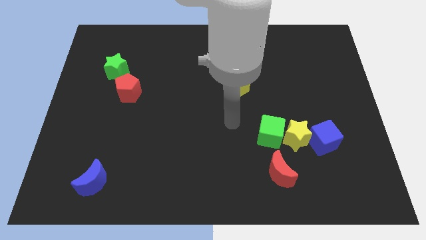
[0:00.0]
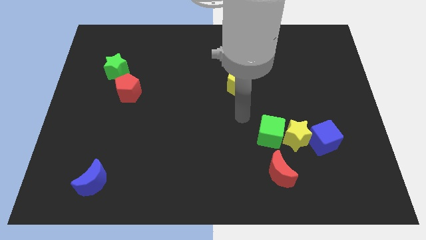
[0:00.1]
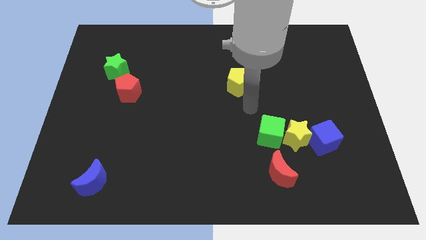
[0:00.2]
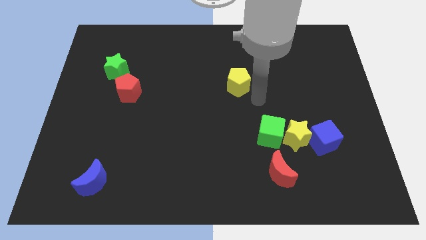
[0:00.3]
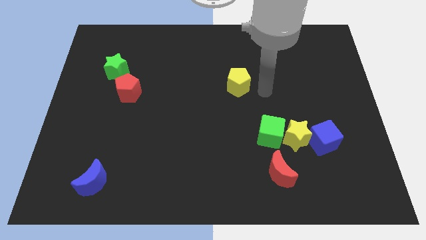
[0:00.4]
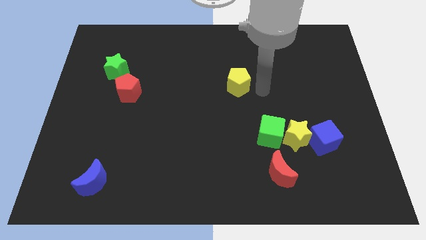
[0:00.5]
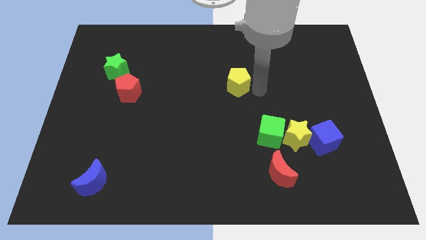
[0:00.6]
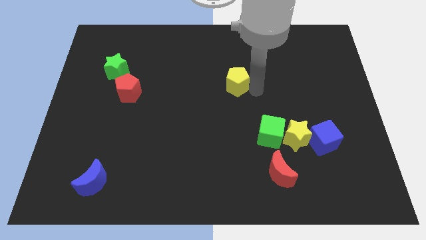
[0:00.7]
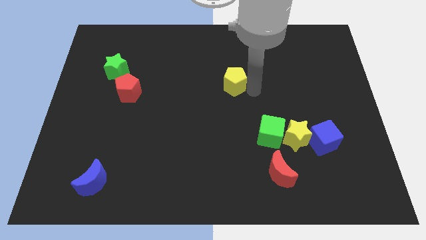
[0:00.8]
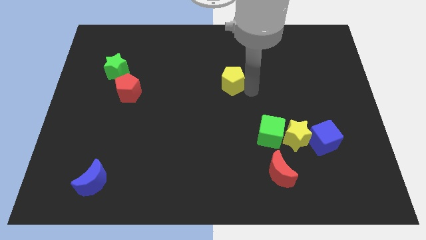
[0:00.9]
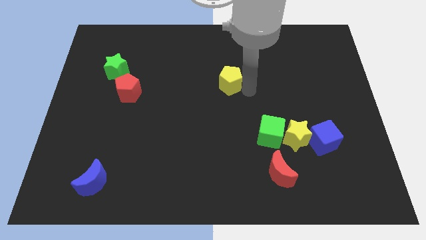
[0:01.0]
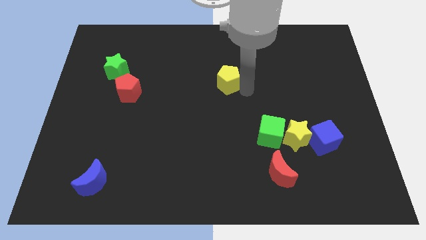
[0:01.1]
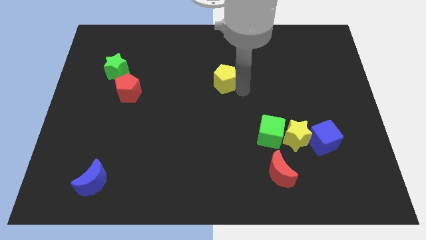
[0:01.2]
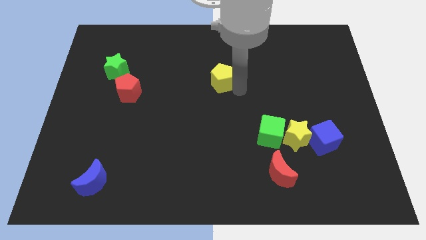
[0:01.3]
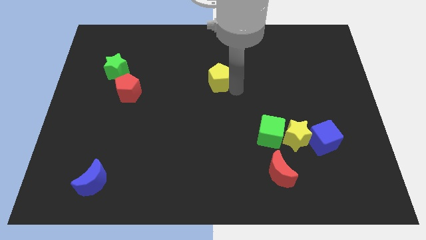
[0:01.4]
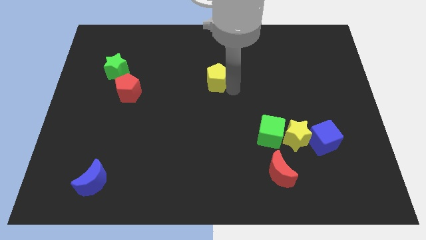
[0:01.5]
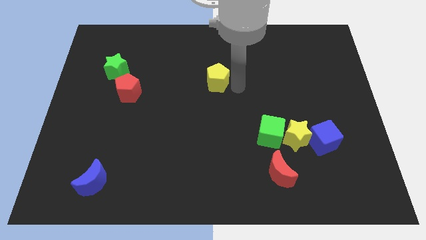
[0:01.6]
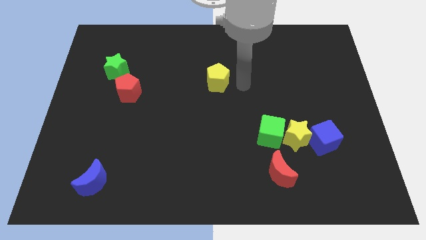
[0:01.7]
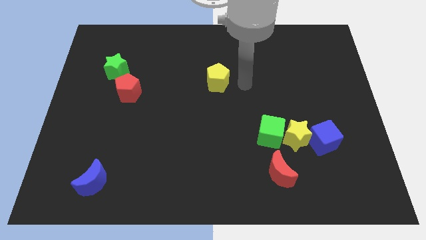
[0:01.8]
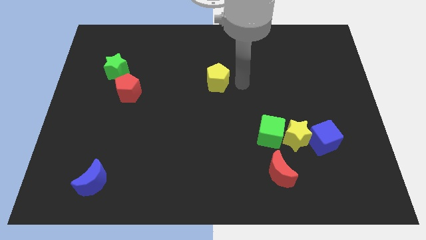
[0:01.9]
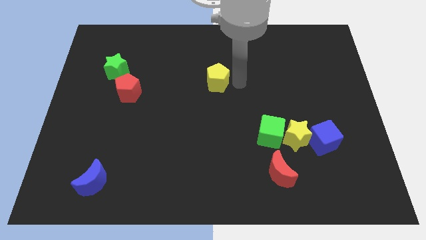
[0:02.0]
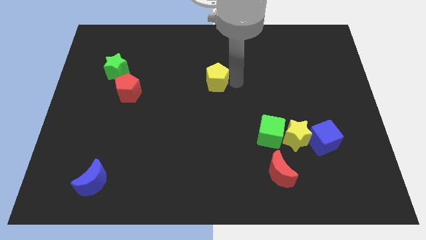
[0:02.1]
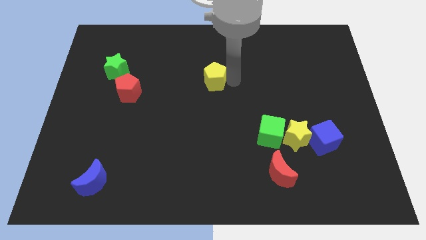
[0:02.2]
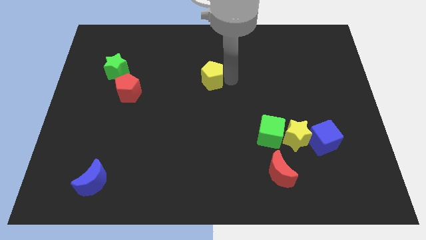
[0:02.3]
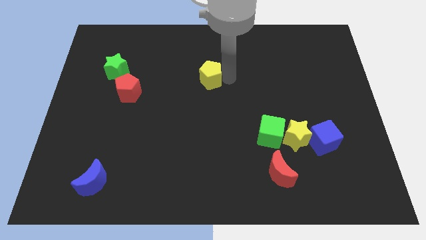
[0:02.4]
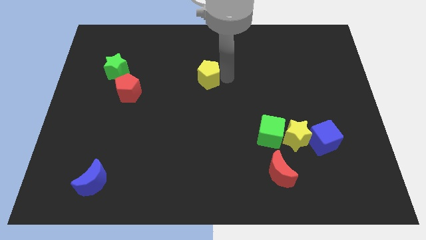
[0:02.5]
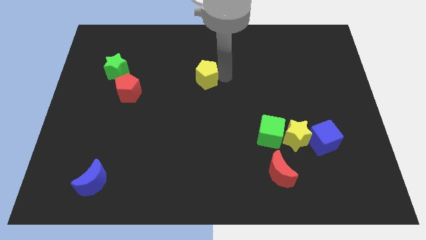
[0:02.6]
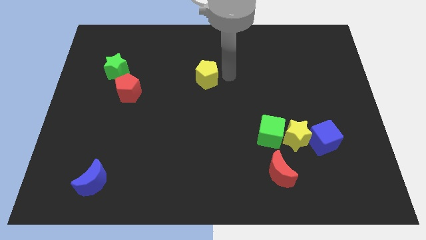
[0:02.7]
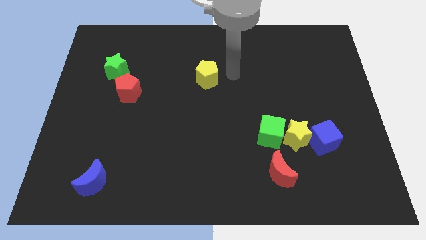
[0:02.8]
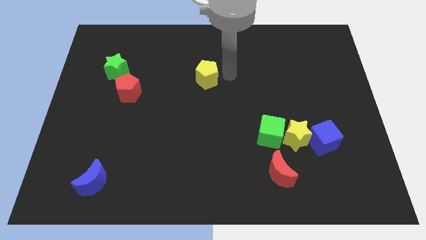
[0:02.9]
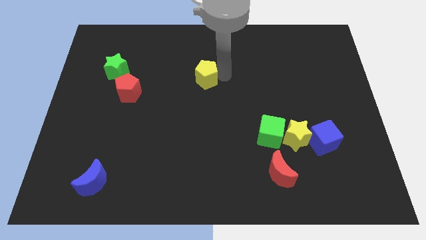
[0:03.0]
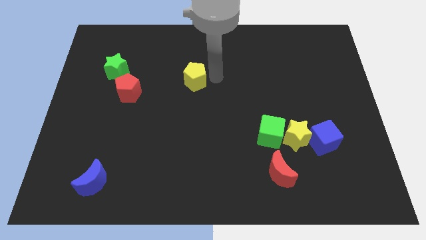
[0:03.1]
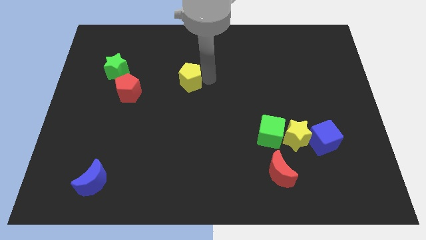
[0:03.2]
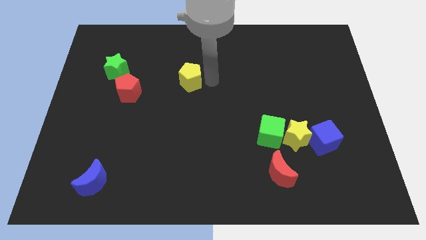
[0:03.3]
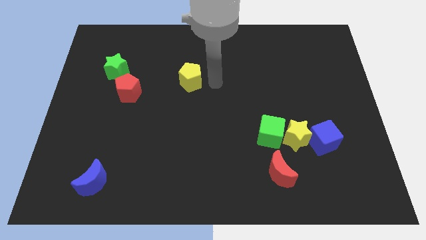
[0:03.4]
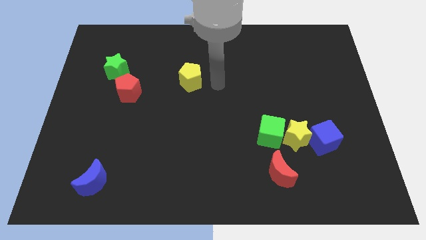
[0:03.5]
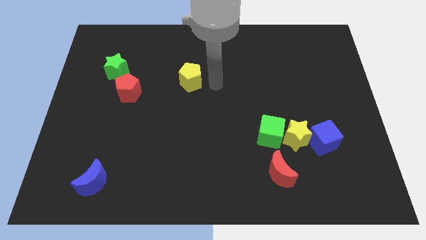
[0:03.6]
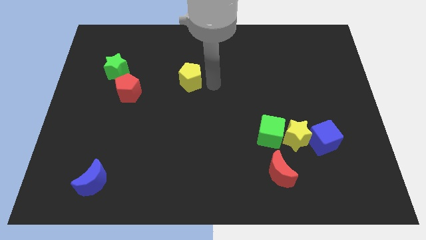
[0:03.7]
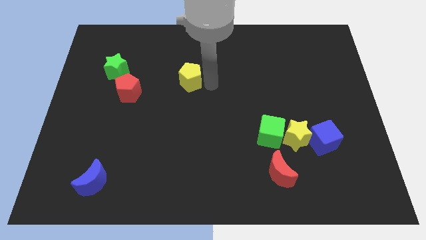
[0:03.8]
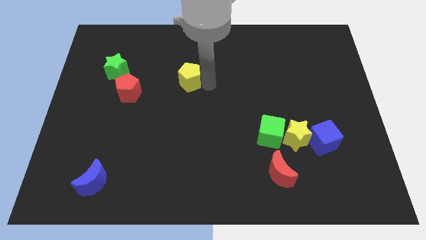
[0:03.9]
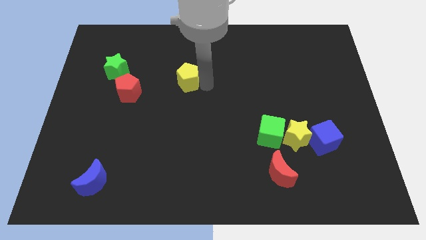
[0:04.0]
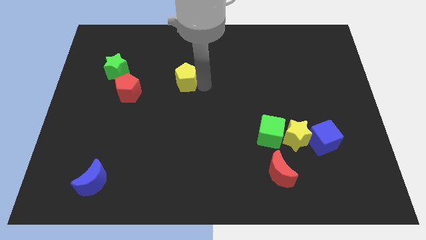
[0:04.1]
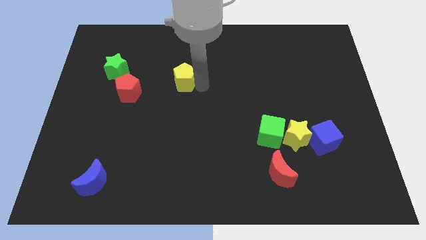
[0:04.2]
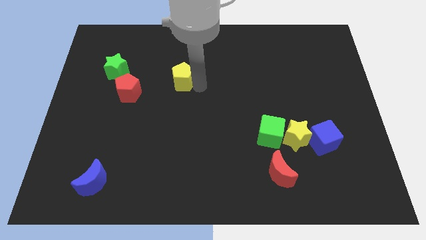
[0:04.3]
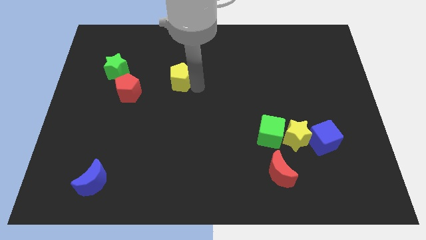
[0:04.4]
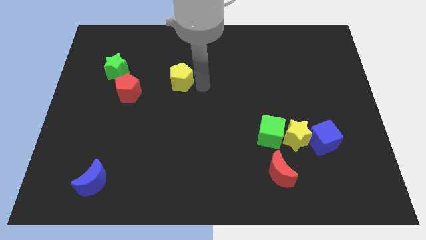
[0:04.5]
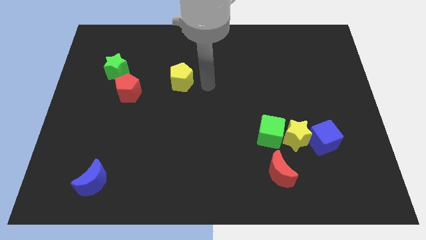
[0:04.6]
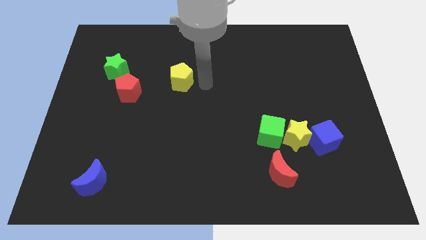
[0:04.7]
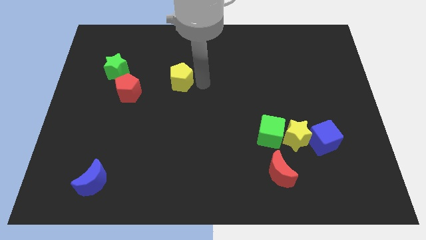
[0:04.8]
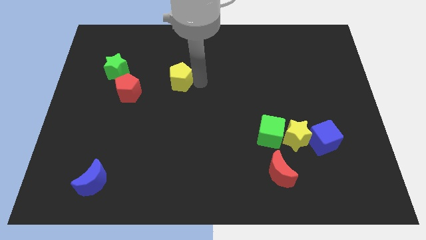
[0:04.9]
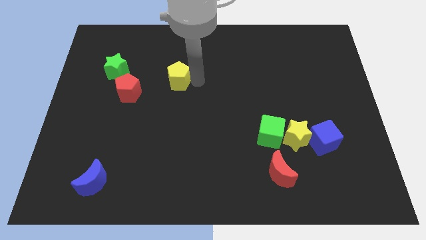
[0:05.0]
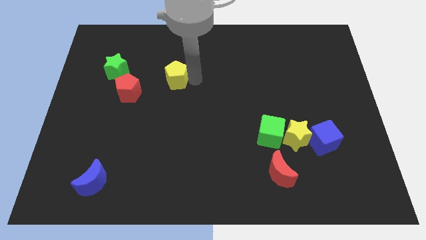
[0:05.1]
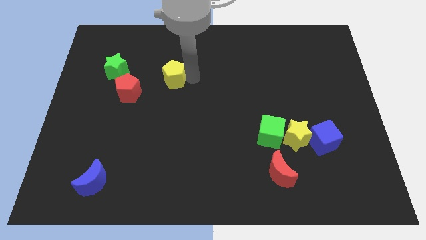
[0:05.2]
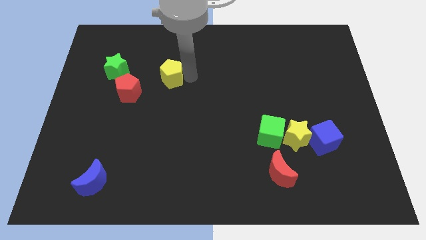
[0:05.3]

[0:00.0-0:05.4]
push the yellow pentagon to the top right side of the red pentagon

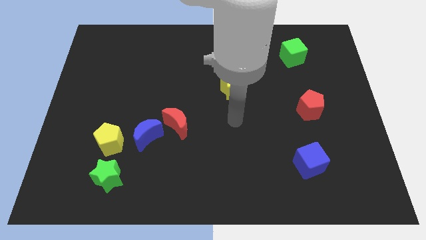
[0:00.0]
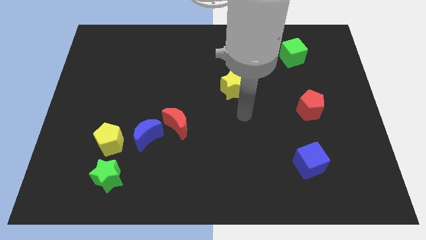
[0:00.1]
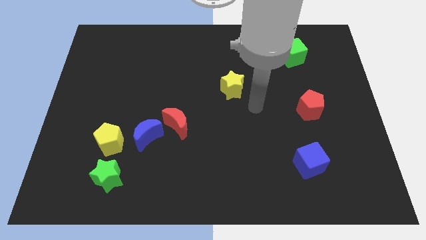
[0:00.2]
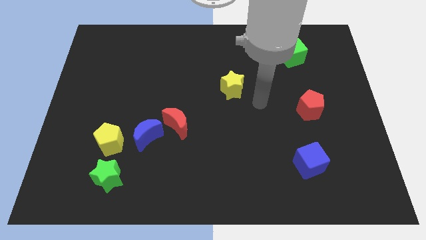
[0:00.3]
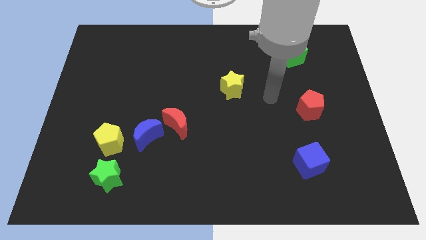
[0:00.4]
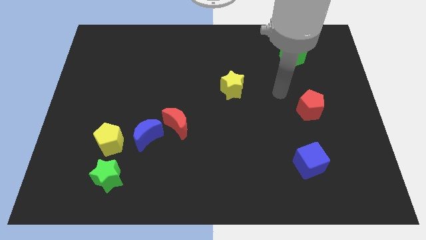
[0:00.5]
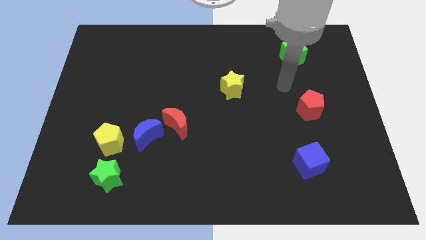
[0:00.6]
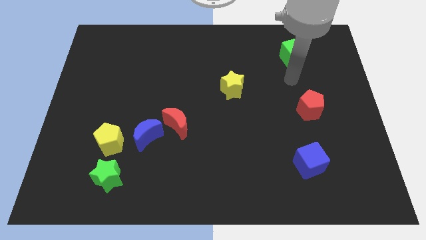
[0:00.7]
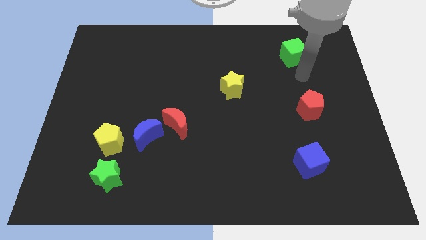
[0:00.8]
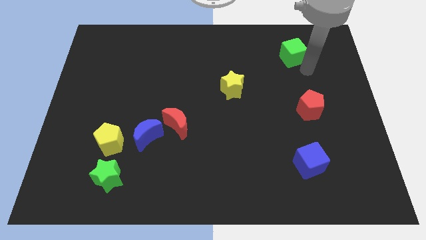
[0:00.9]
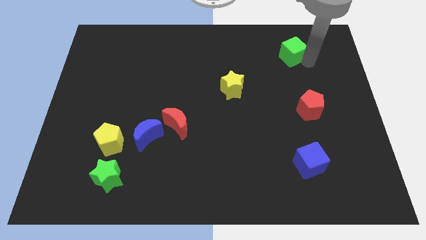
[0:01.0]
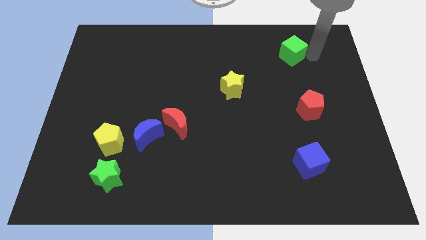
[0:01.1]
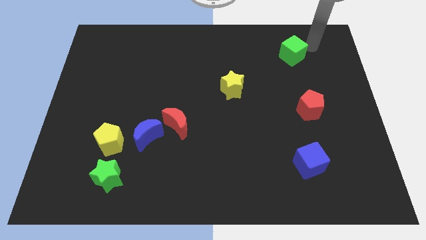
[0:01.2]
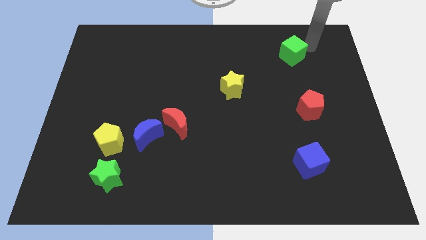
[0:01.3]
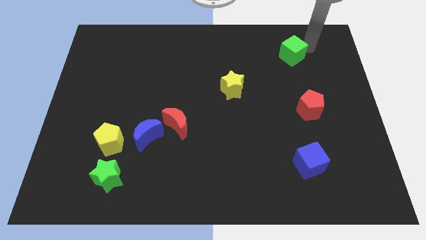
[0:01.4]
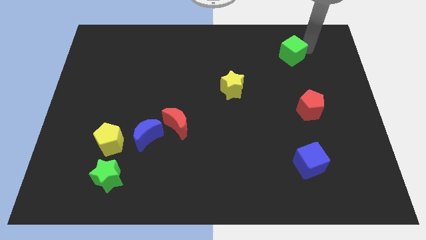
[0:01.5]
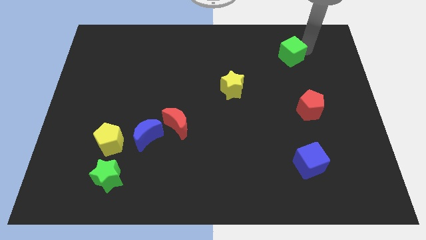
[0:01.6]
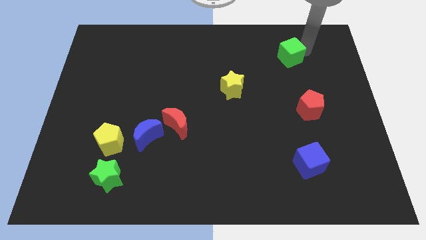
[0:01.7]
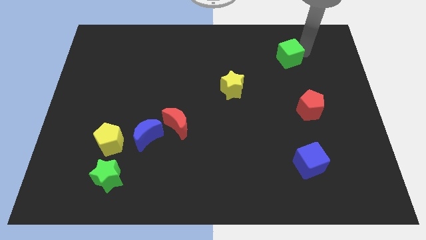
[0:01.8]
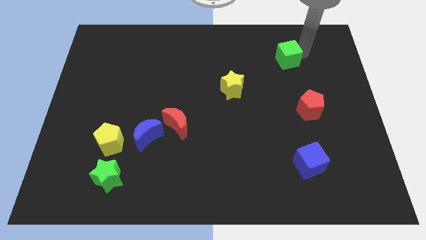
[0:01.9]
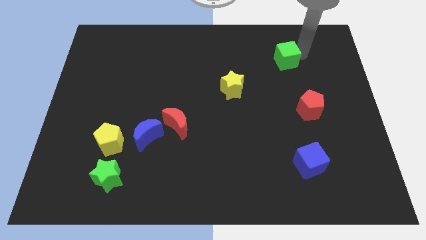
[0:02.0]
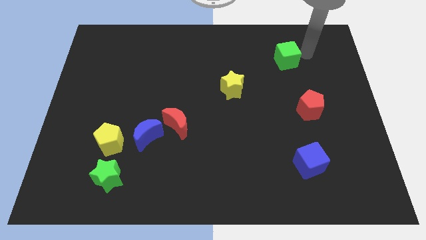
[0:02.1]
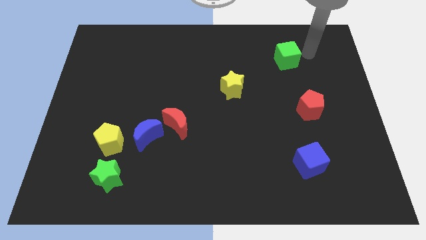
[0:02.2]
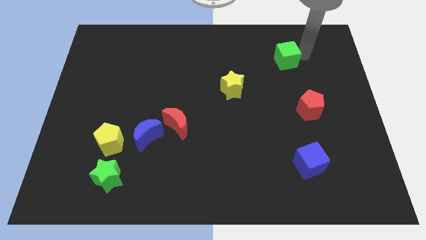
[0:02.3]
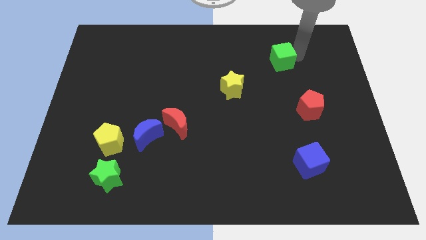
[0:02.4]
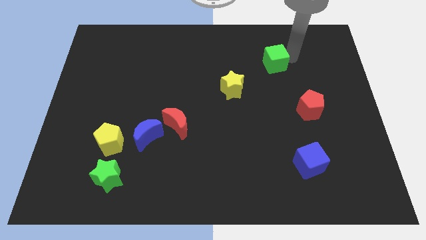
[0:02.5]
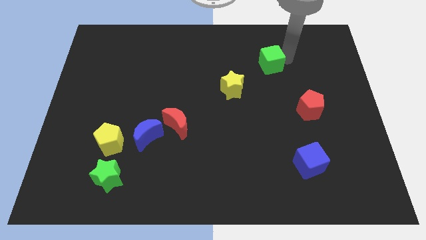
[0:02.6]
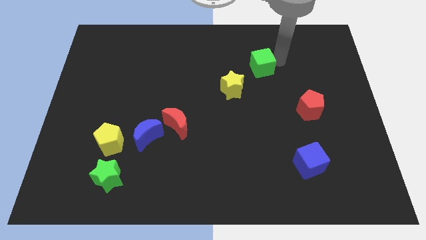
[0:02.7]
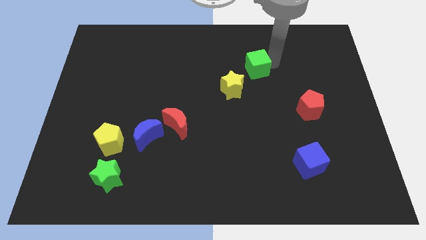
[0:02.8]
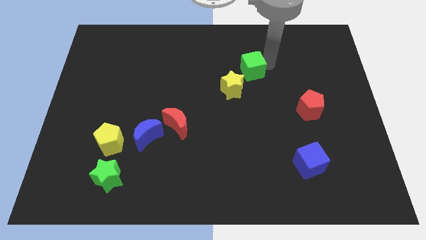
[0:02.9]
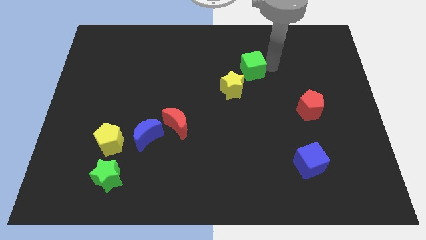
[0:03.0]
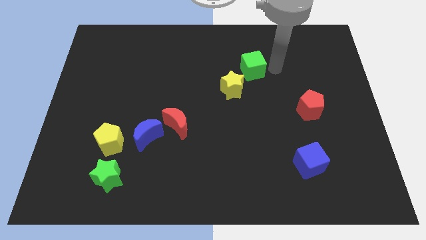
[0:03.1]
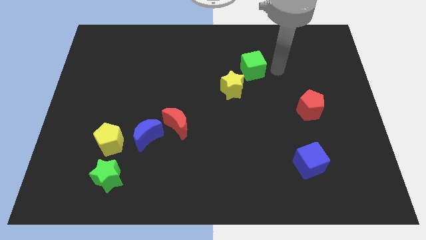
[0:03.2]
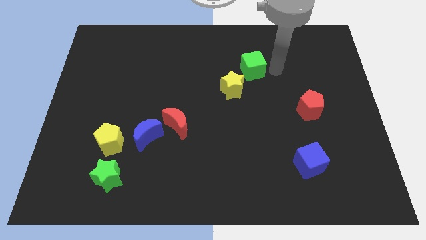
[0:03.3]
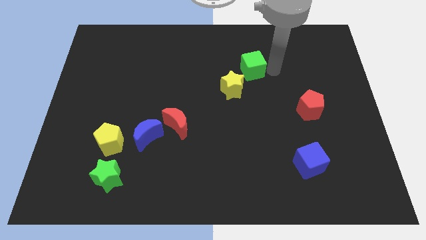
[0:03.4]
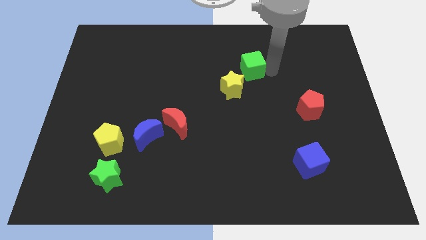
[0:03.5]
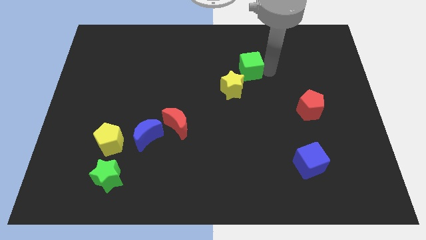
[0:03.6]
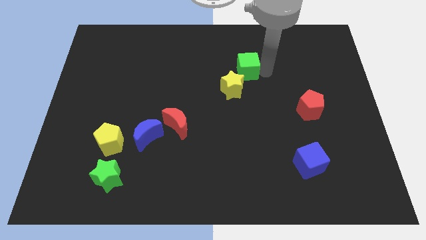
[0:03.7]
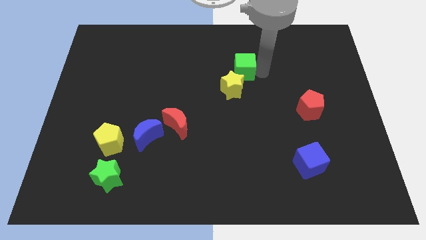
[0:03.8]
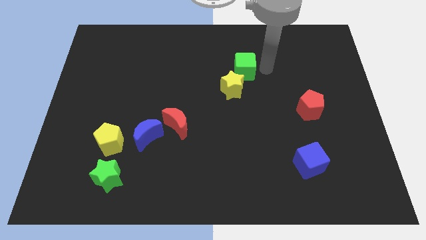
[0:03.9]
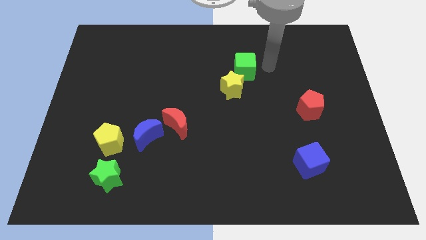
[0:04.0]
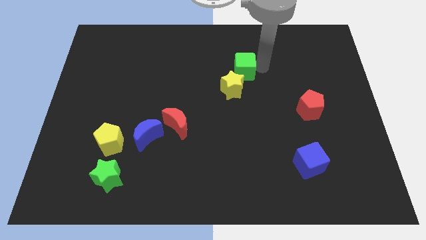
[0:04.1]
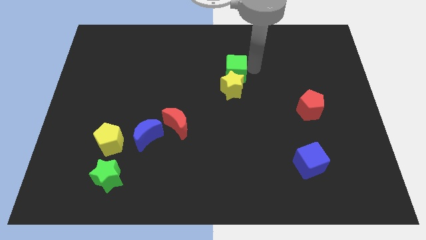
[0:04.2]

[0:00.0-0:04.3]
push the green cube diagonally up and to the left of the yellow star
